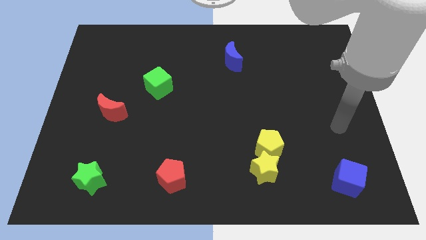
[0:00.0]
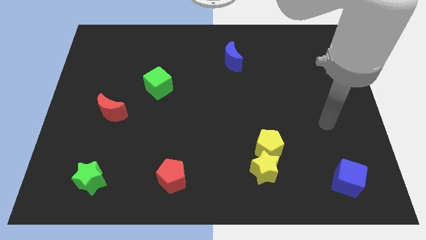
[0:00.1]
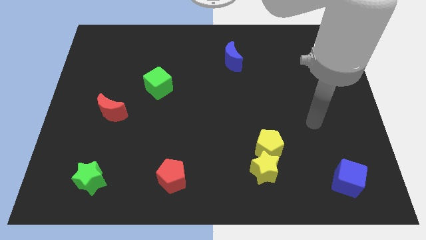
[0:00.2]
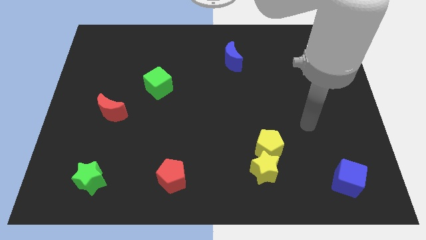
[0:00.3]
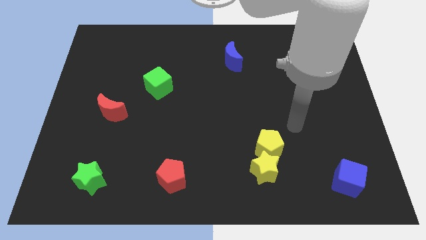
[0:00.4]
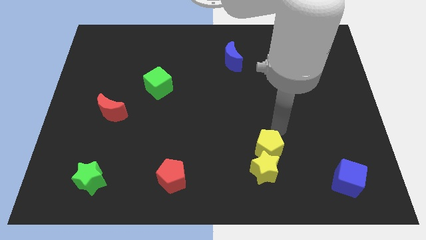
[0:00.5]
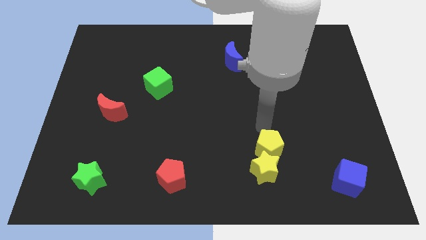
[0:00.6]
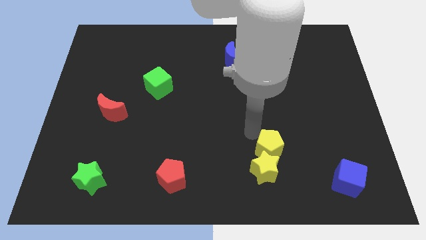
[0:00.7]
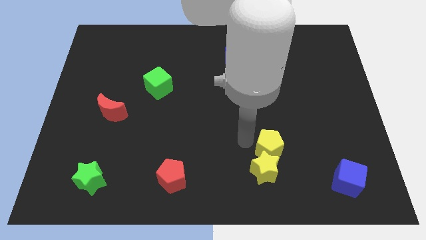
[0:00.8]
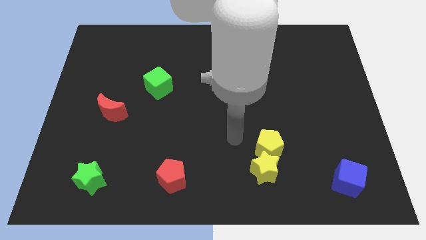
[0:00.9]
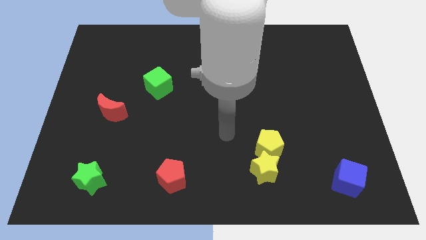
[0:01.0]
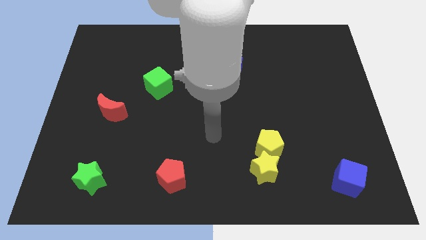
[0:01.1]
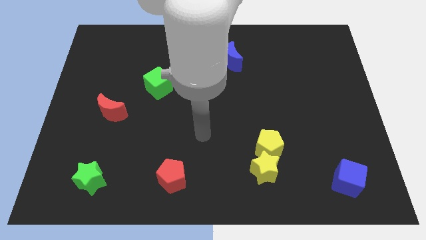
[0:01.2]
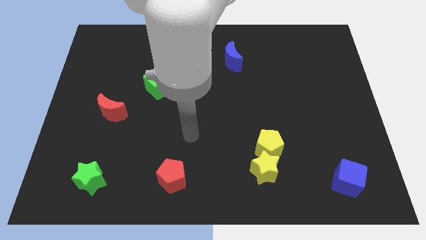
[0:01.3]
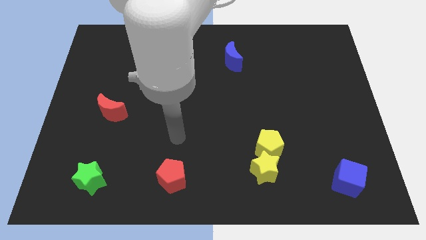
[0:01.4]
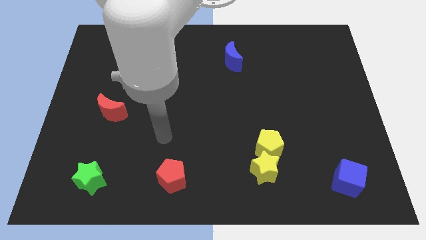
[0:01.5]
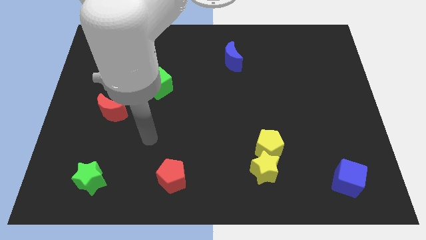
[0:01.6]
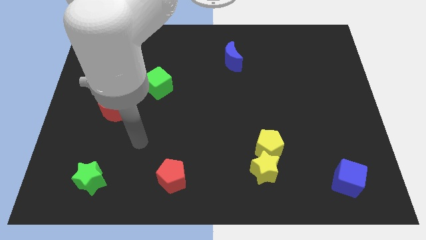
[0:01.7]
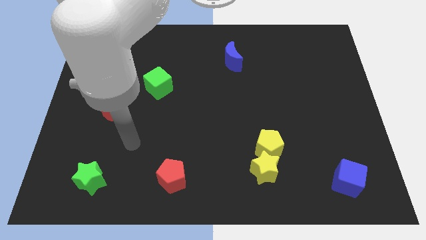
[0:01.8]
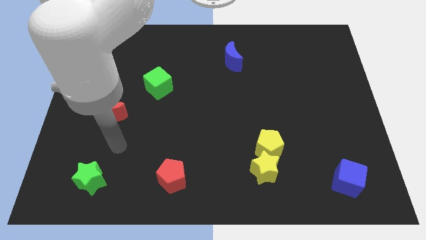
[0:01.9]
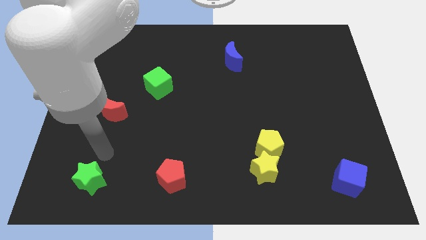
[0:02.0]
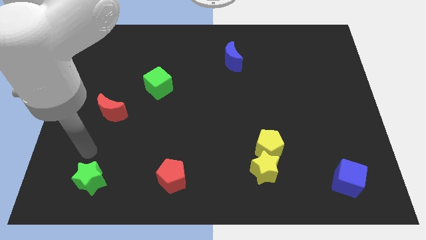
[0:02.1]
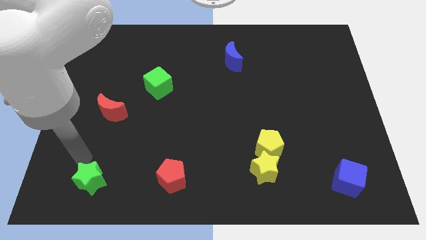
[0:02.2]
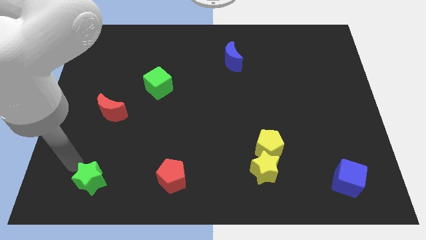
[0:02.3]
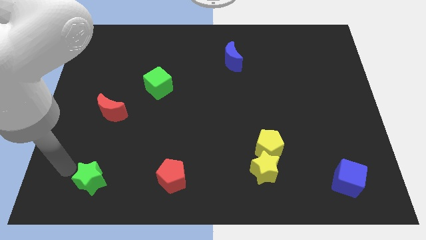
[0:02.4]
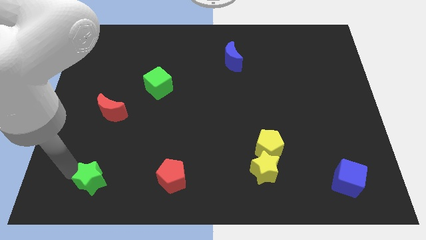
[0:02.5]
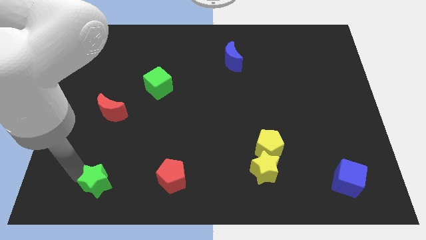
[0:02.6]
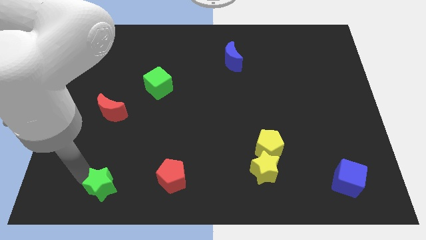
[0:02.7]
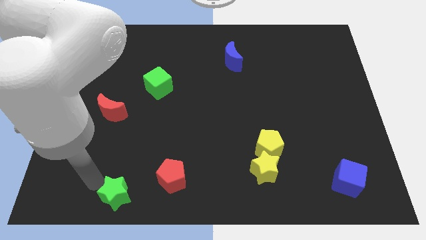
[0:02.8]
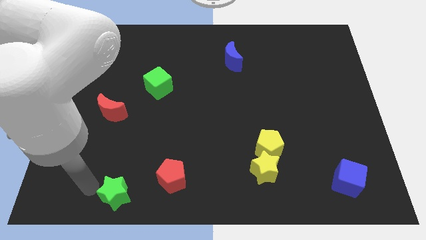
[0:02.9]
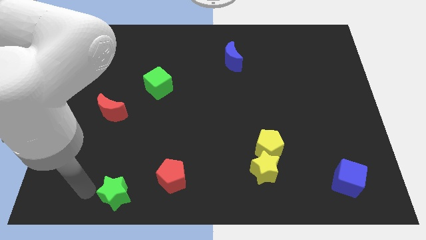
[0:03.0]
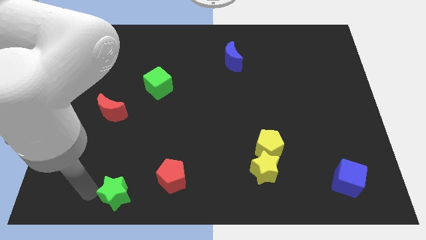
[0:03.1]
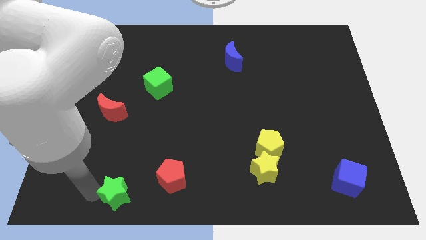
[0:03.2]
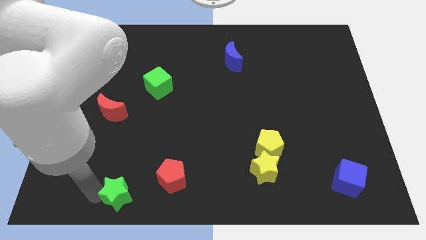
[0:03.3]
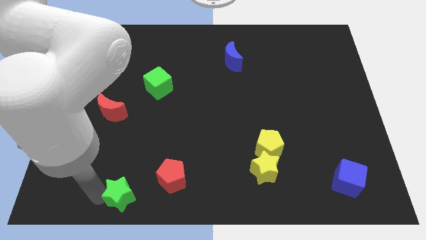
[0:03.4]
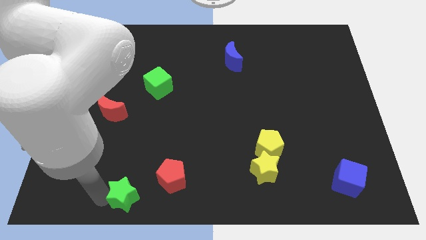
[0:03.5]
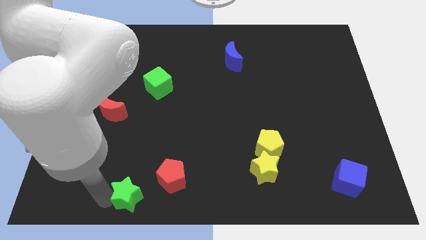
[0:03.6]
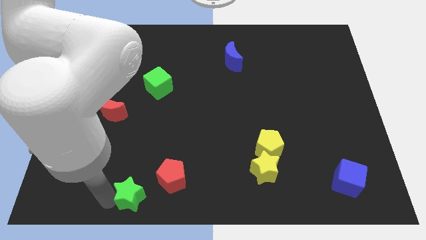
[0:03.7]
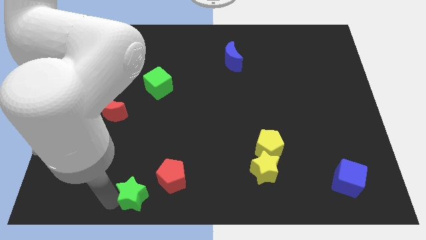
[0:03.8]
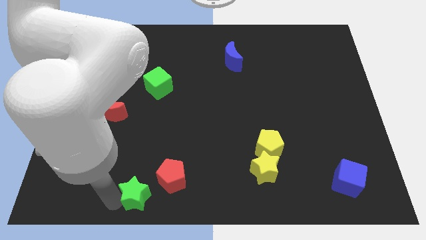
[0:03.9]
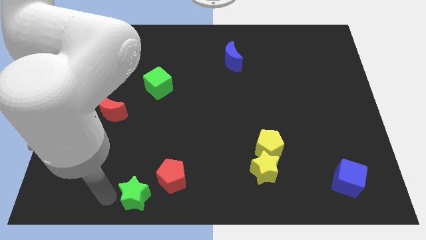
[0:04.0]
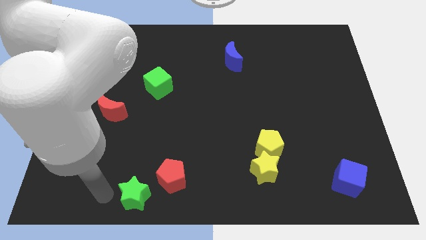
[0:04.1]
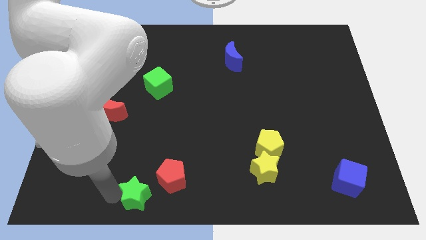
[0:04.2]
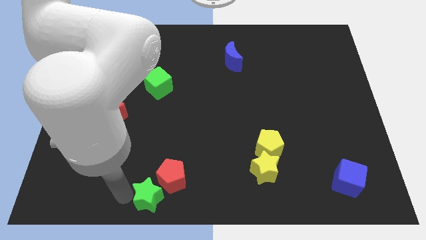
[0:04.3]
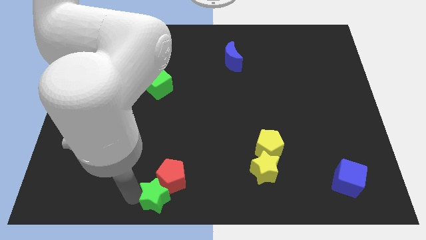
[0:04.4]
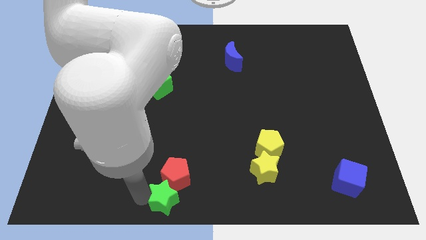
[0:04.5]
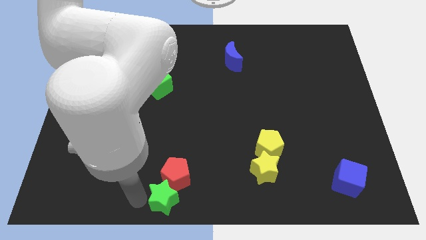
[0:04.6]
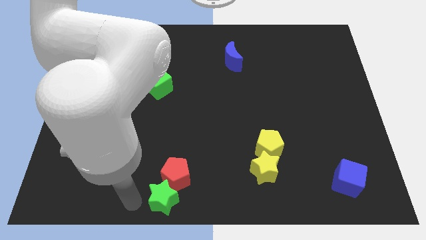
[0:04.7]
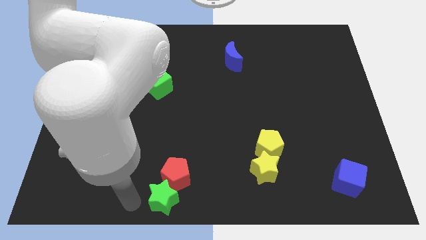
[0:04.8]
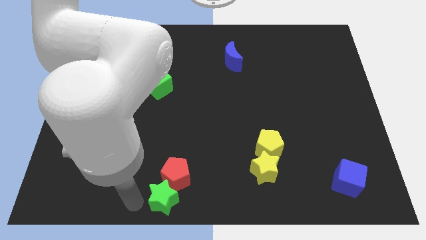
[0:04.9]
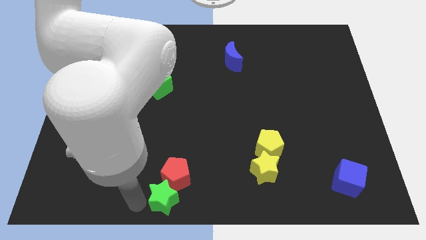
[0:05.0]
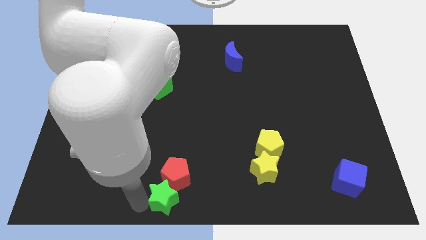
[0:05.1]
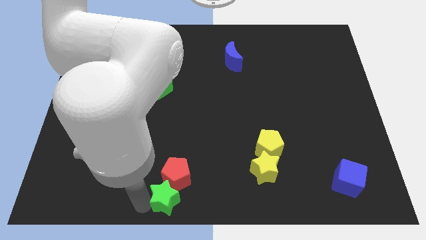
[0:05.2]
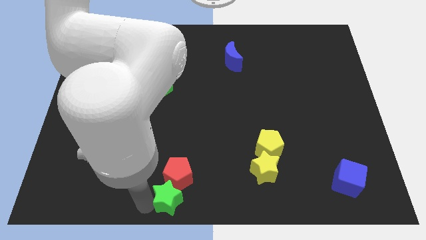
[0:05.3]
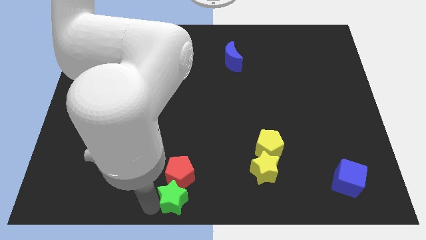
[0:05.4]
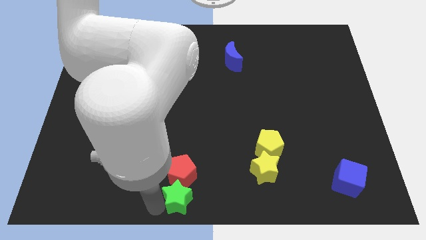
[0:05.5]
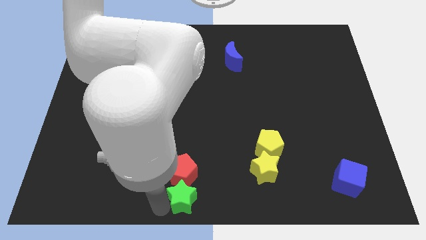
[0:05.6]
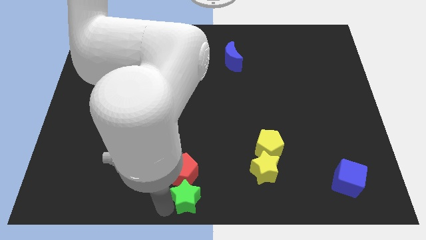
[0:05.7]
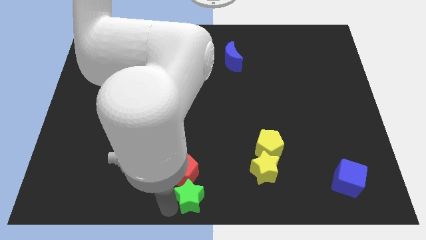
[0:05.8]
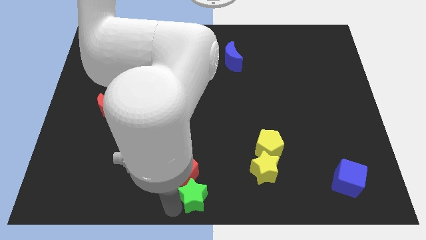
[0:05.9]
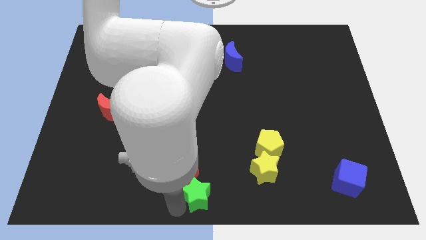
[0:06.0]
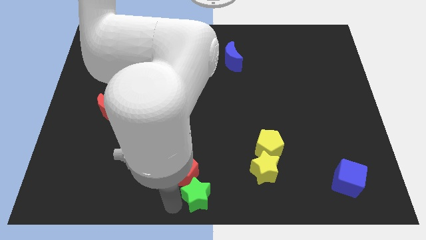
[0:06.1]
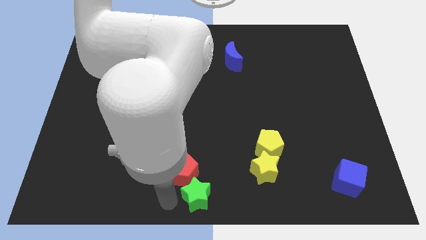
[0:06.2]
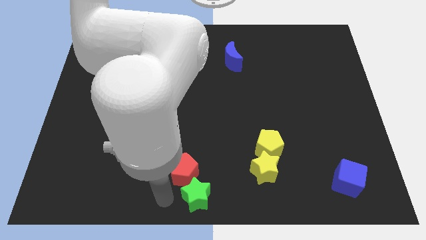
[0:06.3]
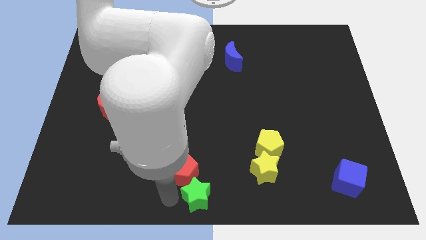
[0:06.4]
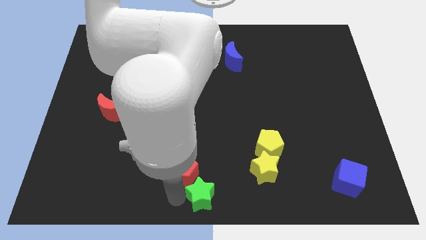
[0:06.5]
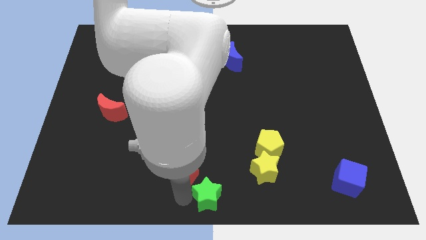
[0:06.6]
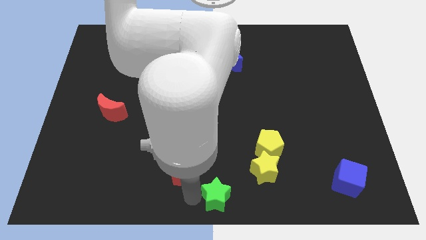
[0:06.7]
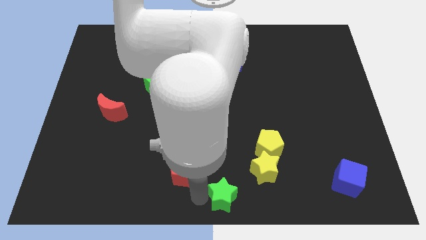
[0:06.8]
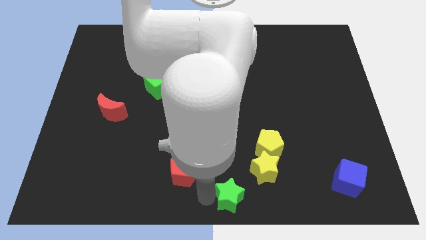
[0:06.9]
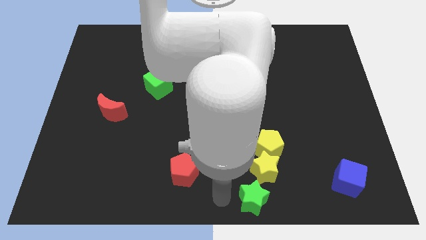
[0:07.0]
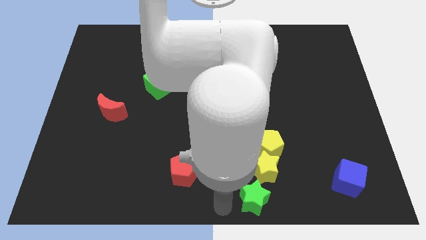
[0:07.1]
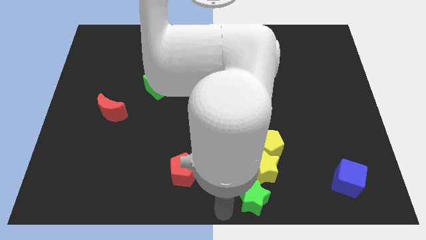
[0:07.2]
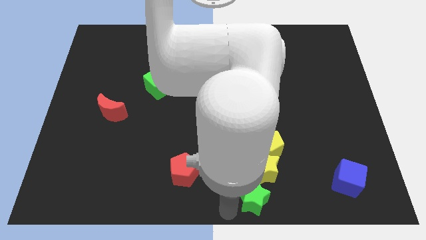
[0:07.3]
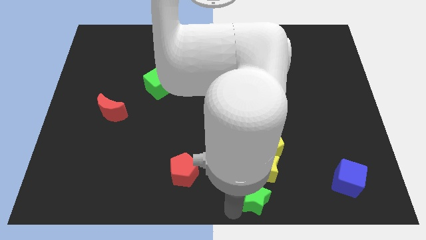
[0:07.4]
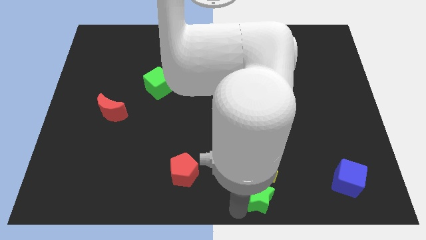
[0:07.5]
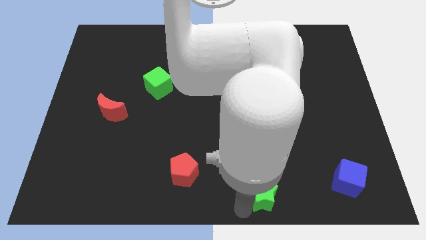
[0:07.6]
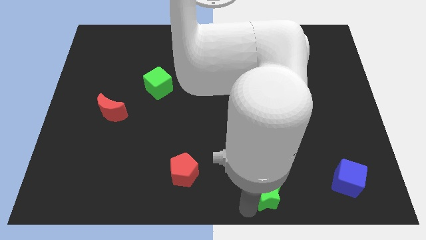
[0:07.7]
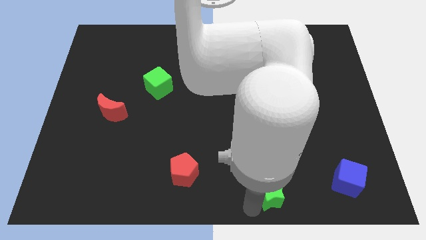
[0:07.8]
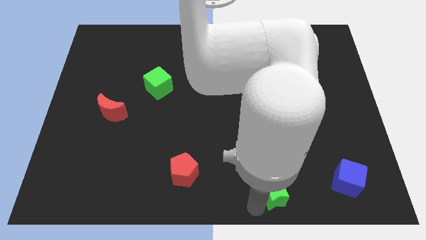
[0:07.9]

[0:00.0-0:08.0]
move the green star to the left of the blue cube
